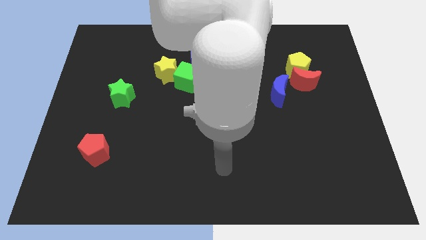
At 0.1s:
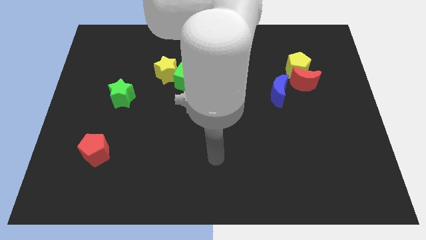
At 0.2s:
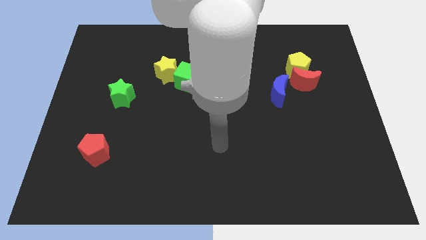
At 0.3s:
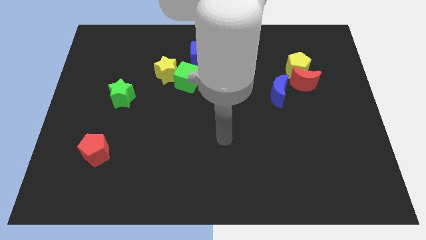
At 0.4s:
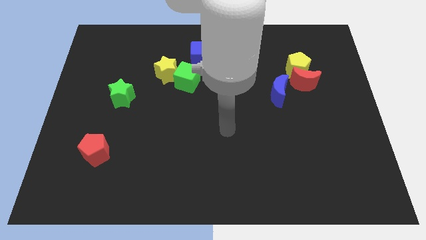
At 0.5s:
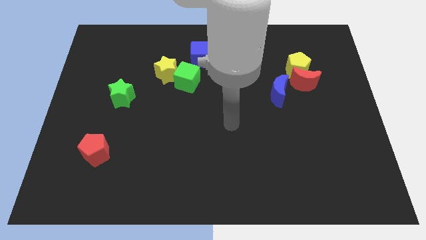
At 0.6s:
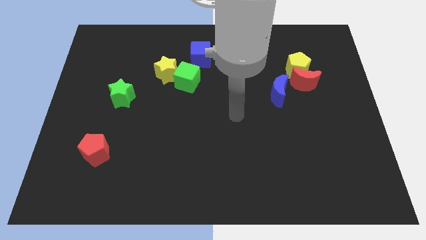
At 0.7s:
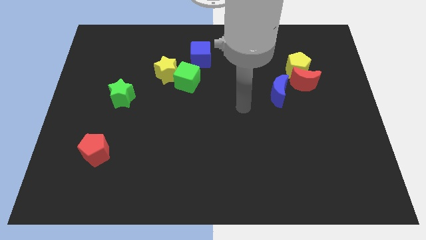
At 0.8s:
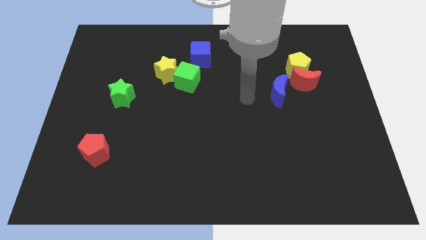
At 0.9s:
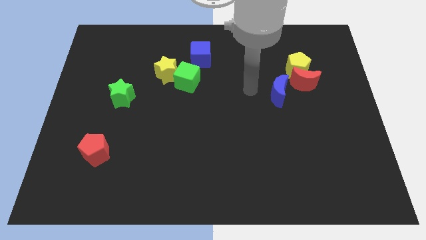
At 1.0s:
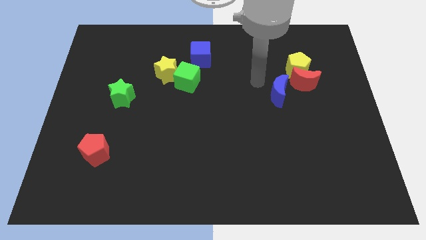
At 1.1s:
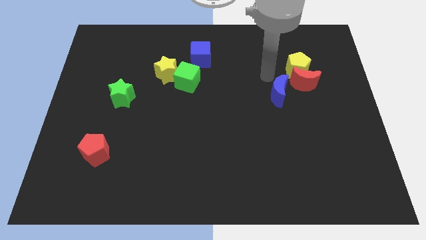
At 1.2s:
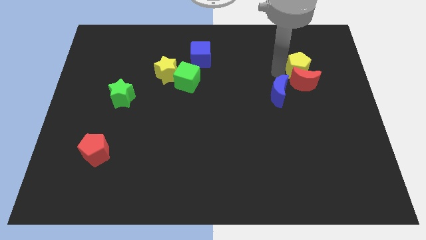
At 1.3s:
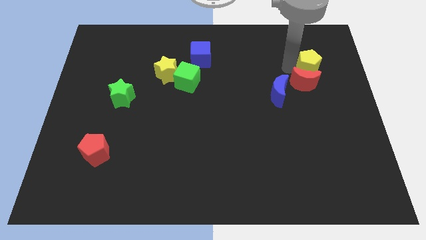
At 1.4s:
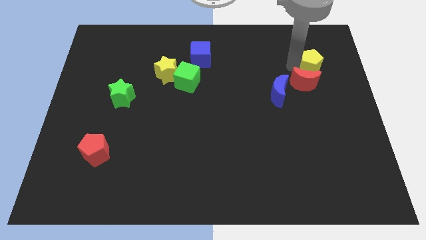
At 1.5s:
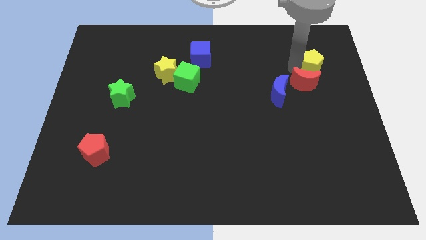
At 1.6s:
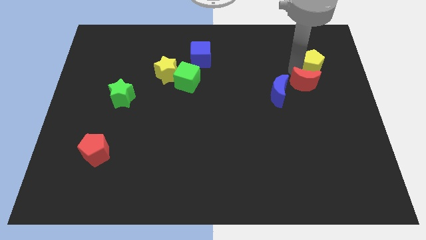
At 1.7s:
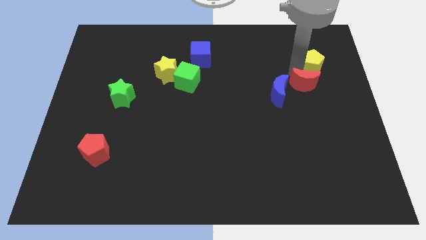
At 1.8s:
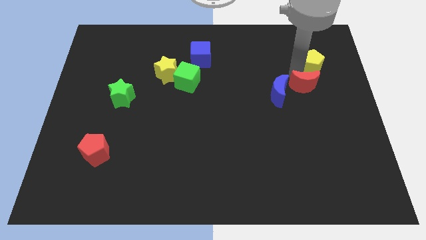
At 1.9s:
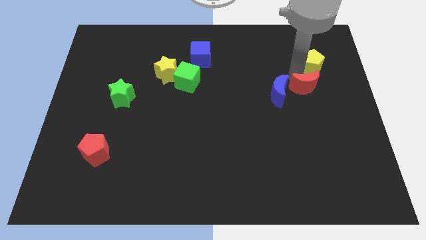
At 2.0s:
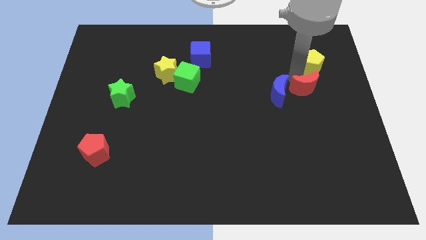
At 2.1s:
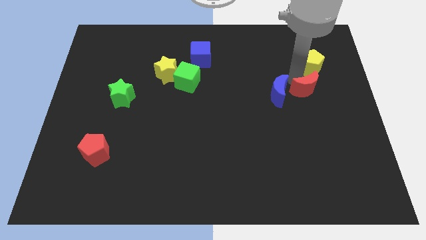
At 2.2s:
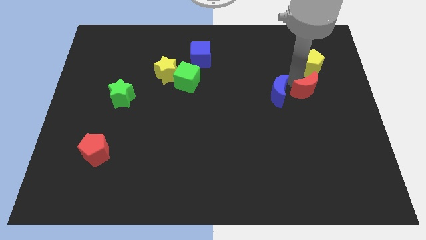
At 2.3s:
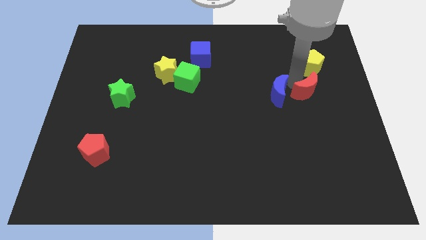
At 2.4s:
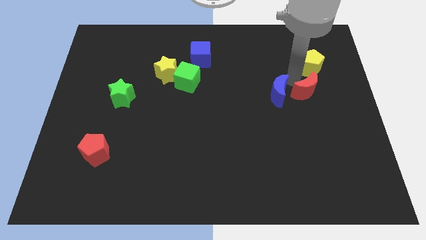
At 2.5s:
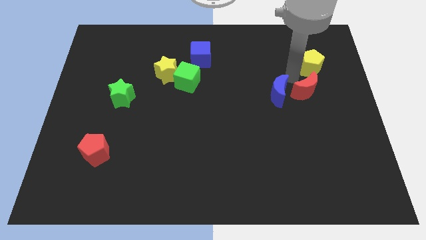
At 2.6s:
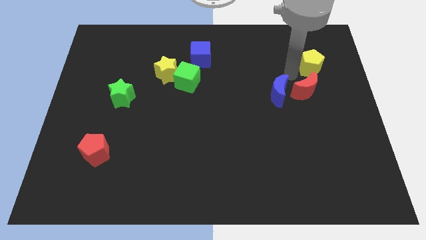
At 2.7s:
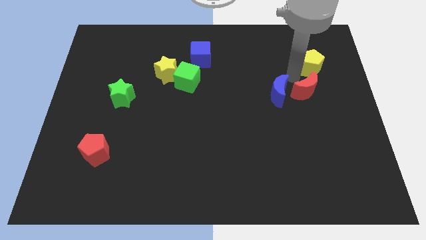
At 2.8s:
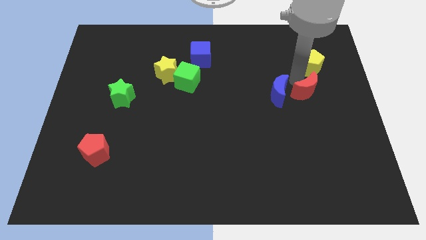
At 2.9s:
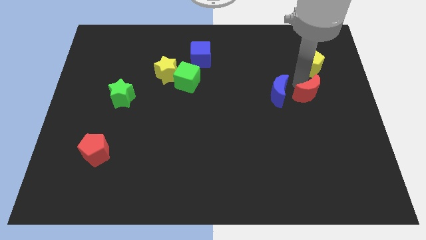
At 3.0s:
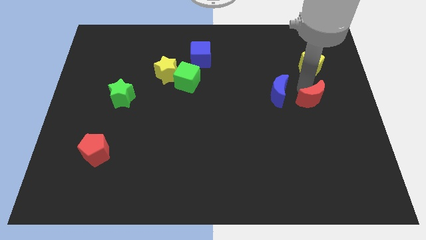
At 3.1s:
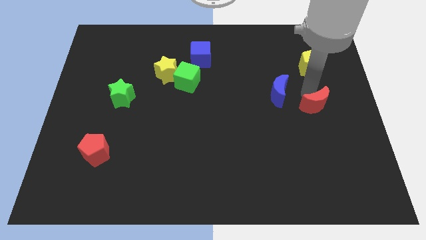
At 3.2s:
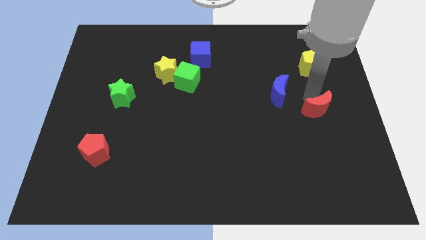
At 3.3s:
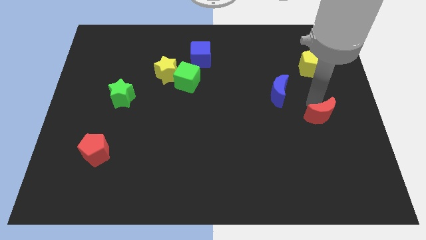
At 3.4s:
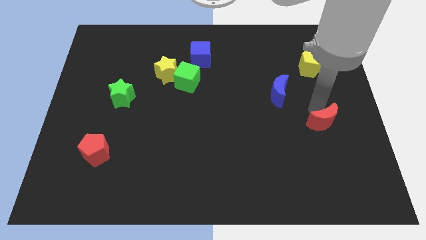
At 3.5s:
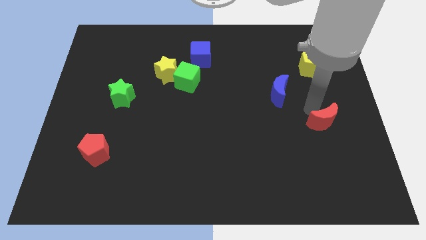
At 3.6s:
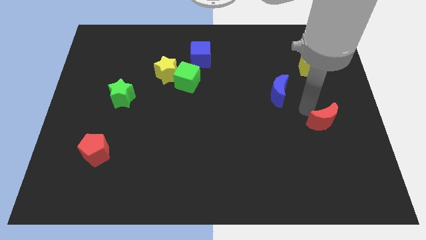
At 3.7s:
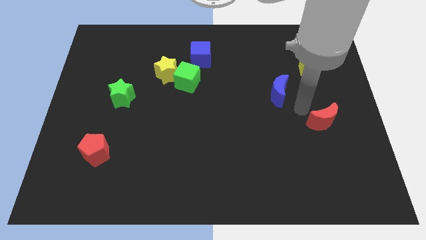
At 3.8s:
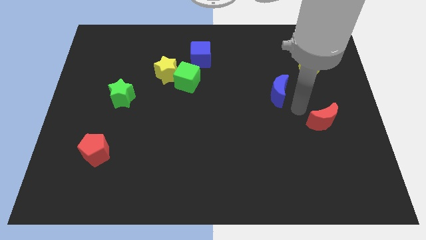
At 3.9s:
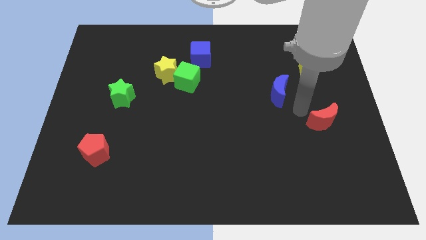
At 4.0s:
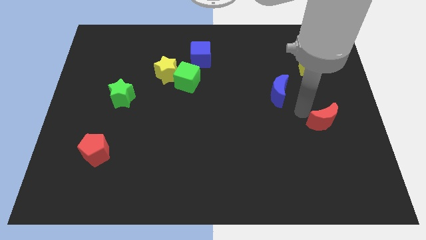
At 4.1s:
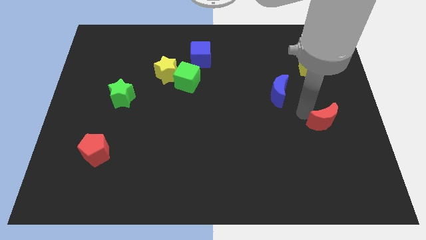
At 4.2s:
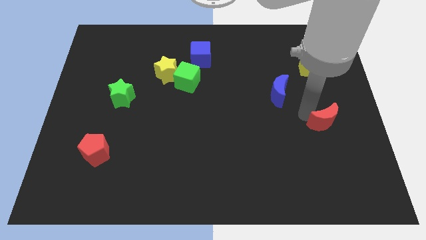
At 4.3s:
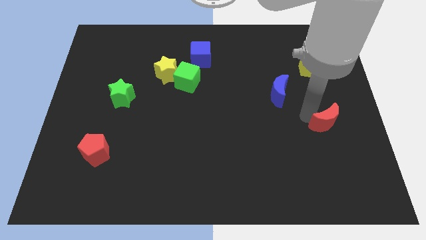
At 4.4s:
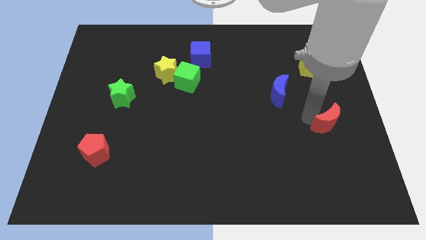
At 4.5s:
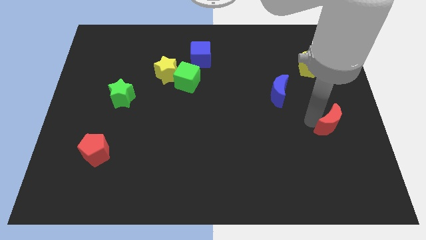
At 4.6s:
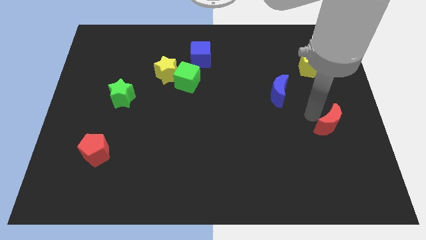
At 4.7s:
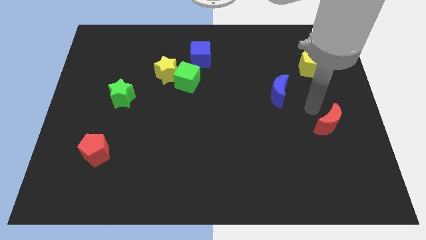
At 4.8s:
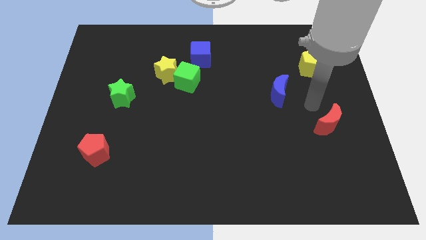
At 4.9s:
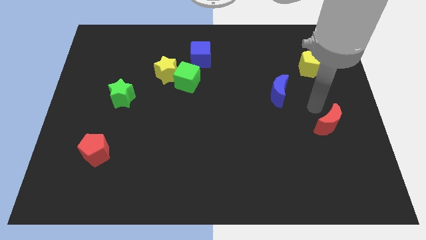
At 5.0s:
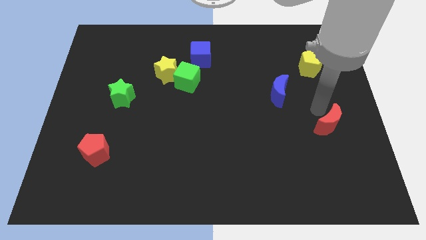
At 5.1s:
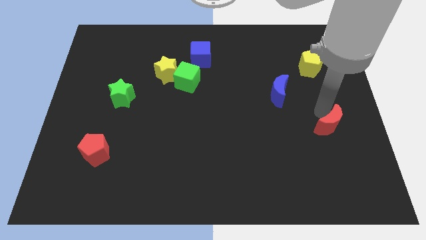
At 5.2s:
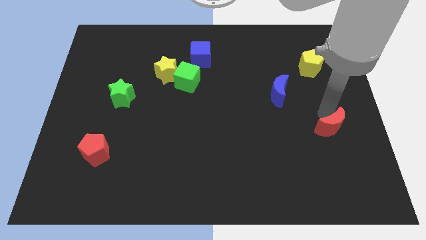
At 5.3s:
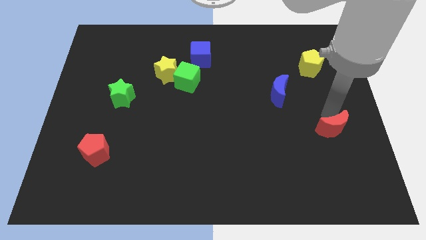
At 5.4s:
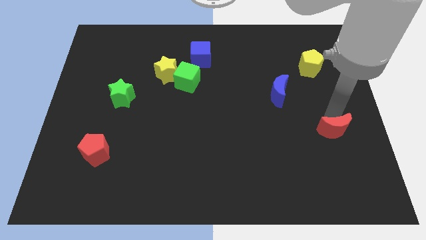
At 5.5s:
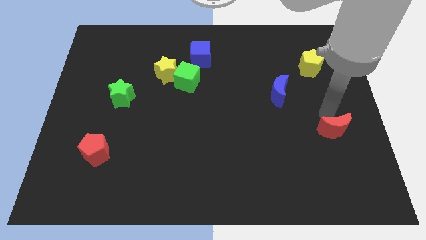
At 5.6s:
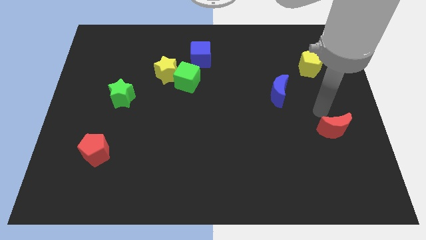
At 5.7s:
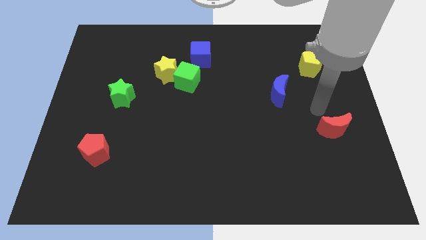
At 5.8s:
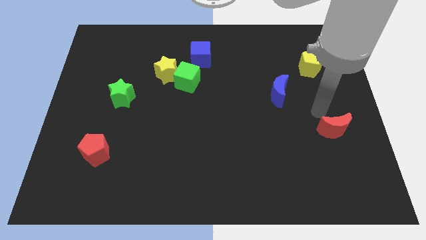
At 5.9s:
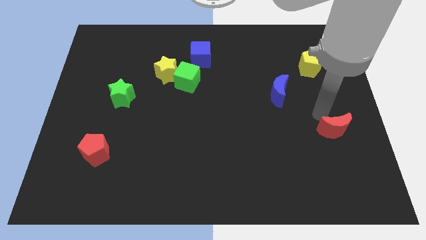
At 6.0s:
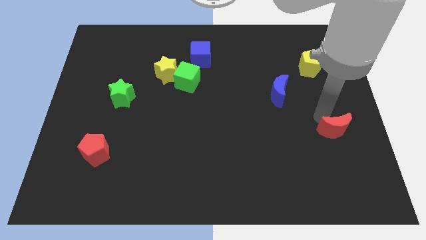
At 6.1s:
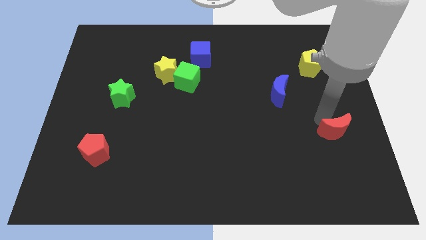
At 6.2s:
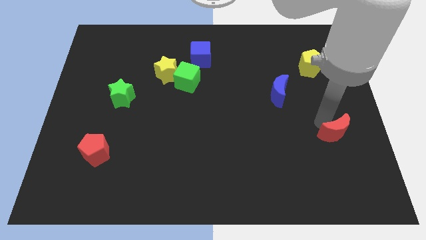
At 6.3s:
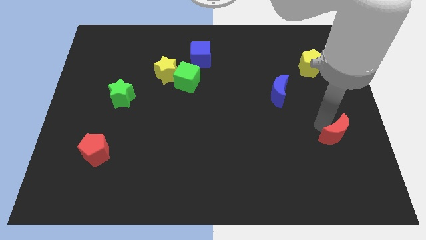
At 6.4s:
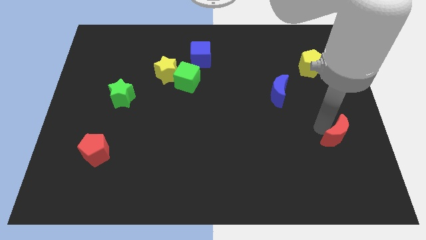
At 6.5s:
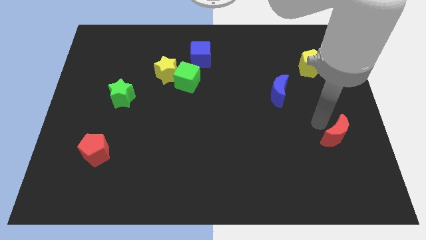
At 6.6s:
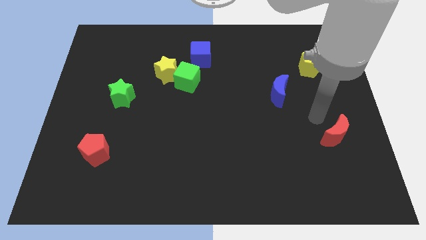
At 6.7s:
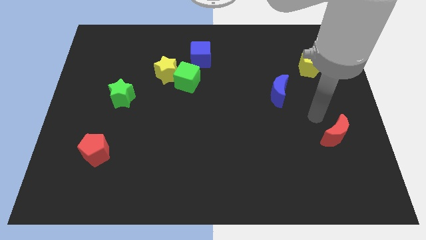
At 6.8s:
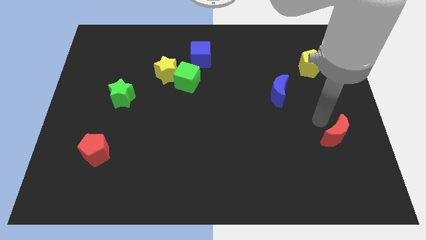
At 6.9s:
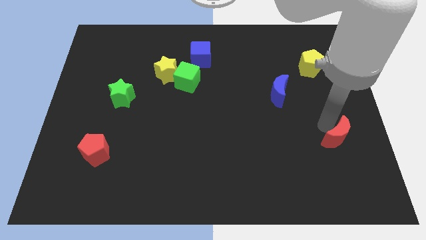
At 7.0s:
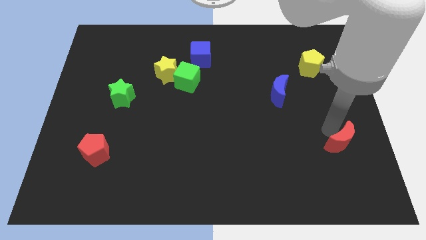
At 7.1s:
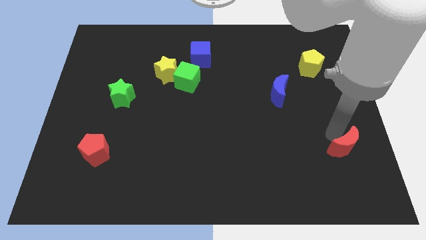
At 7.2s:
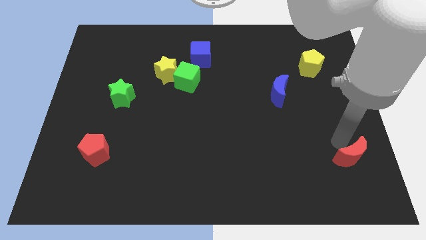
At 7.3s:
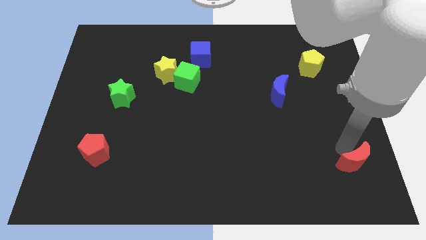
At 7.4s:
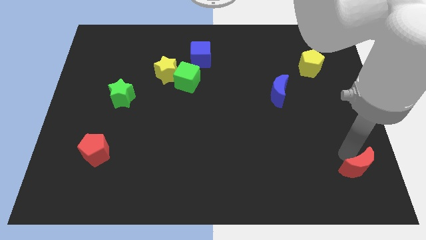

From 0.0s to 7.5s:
put the red moon to the bottom right of the board

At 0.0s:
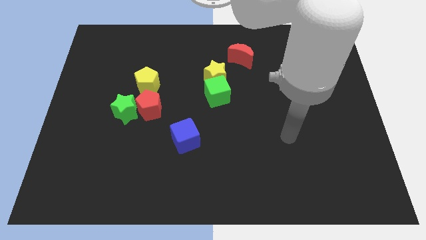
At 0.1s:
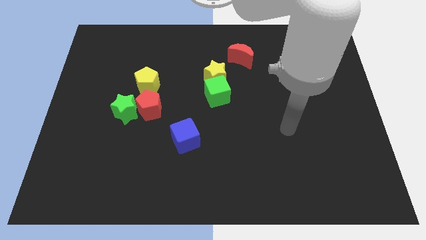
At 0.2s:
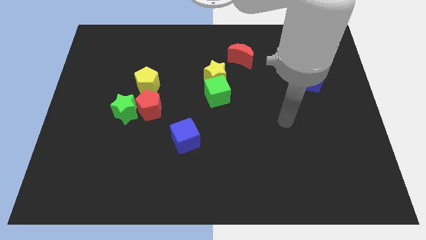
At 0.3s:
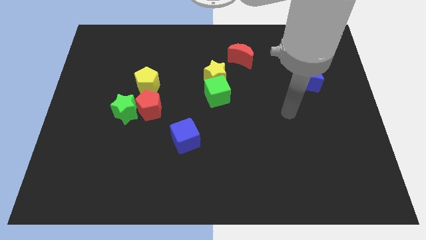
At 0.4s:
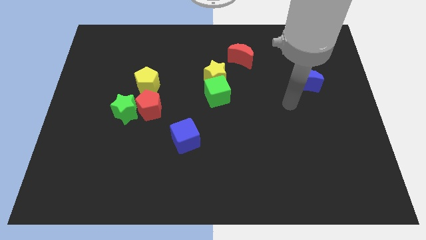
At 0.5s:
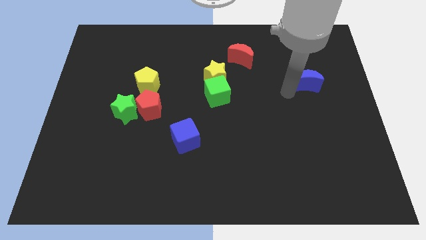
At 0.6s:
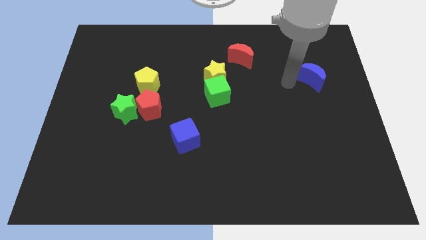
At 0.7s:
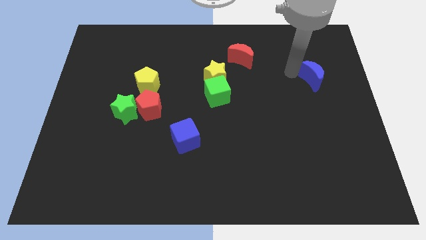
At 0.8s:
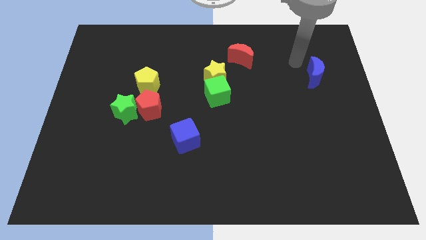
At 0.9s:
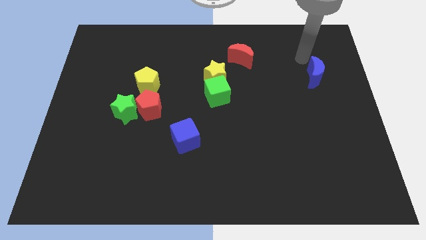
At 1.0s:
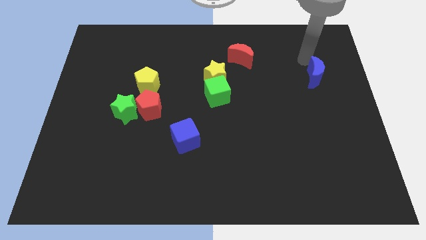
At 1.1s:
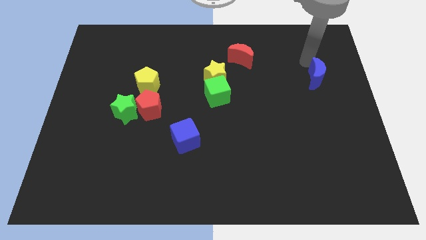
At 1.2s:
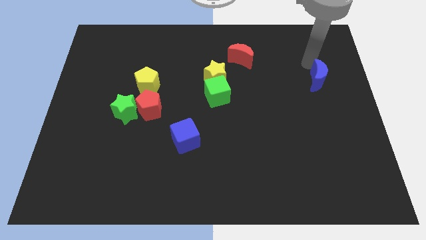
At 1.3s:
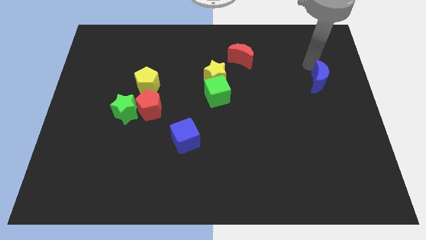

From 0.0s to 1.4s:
push the blue moon to the right side
